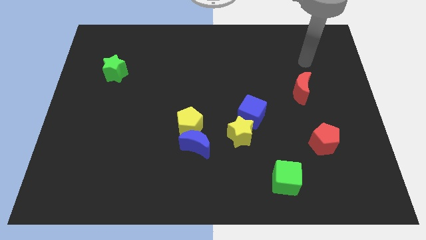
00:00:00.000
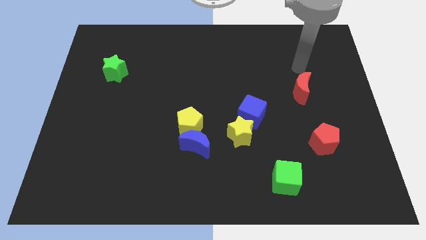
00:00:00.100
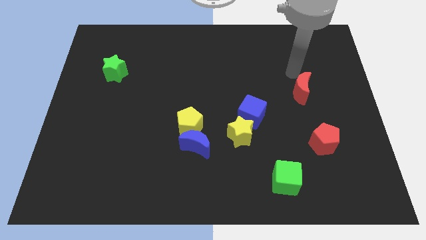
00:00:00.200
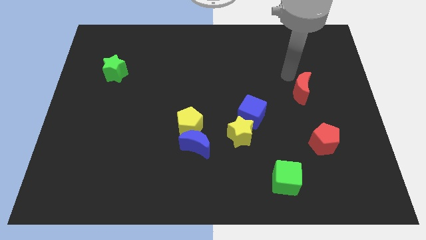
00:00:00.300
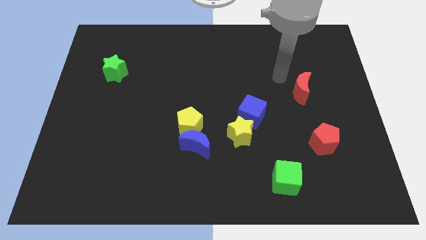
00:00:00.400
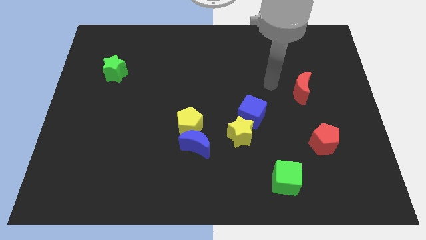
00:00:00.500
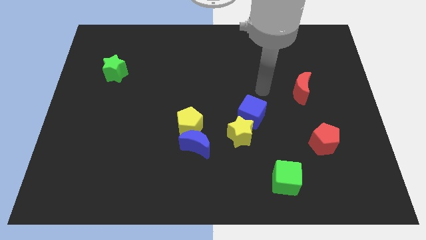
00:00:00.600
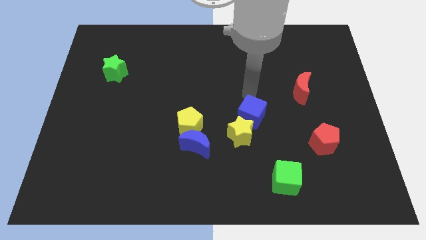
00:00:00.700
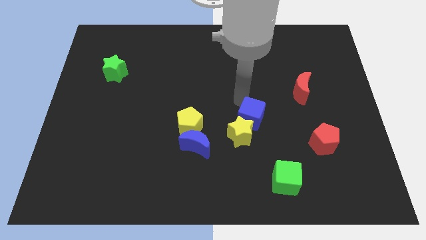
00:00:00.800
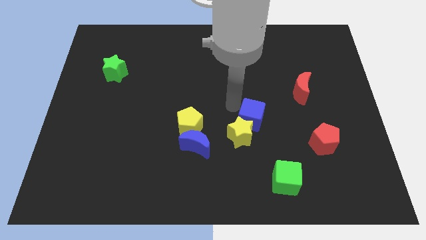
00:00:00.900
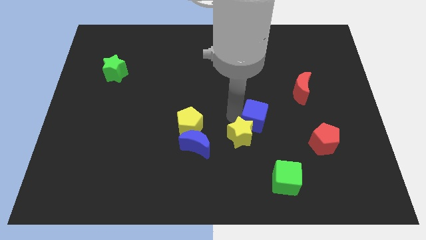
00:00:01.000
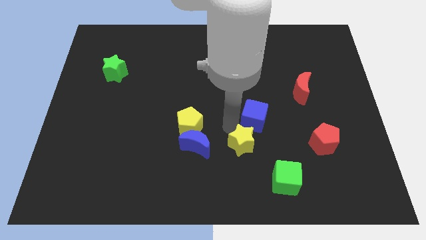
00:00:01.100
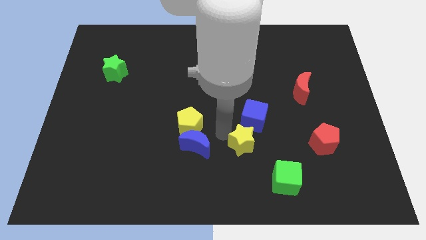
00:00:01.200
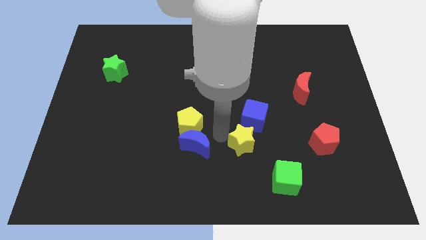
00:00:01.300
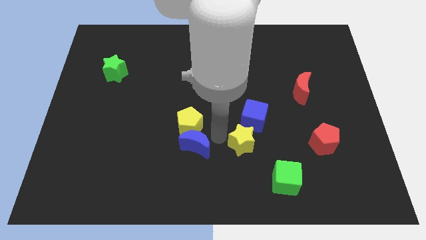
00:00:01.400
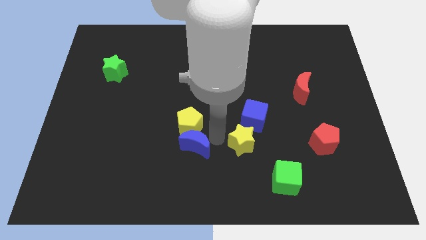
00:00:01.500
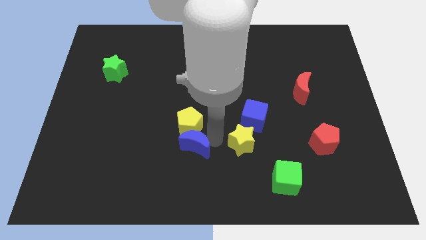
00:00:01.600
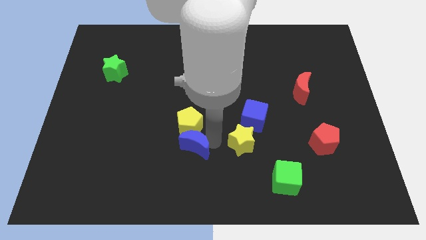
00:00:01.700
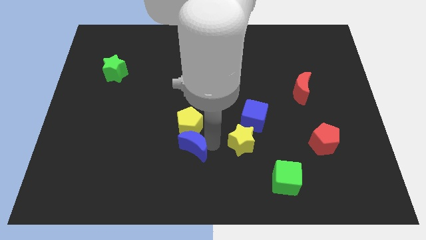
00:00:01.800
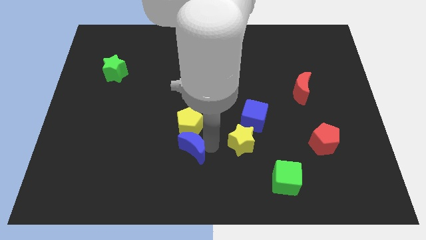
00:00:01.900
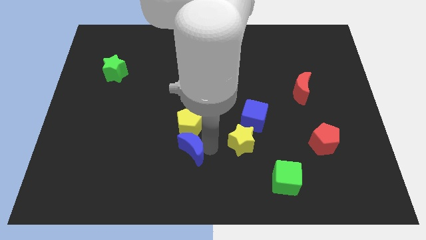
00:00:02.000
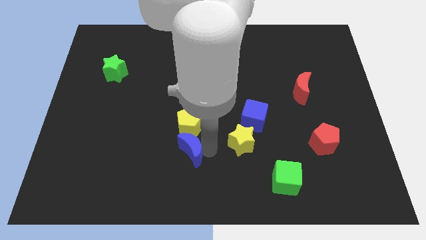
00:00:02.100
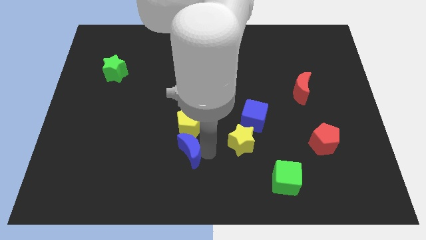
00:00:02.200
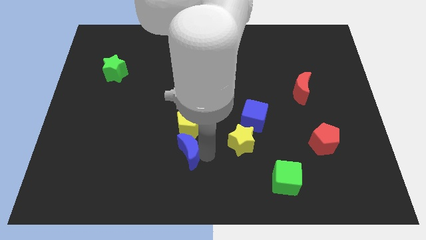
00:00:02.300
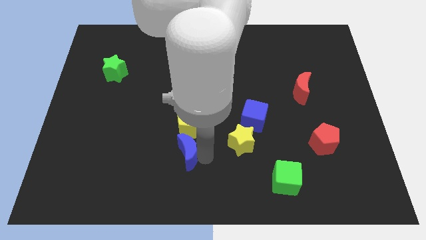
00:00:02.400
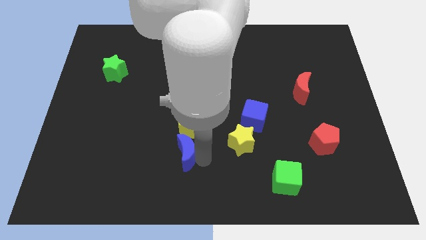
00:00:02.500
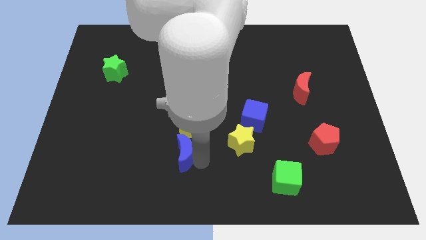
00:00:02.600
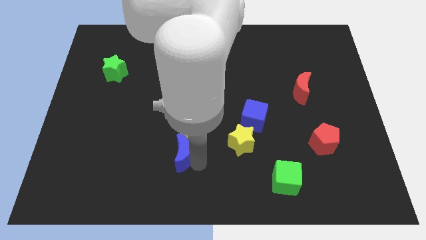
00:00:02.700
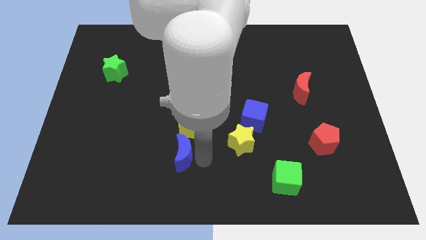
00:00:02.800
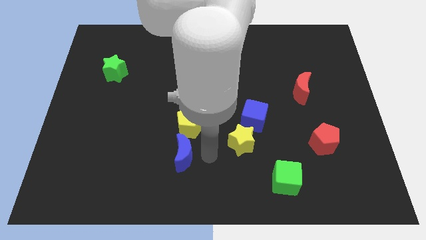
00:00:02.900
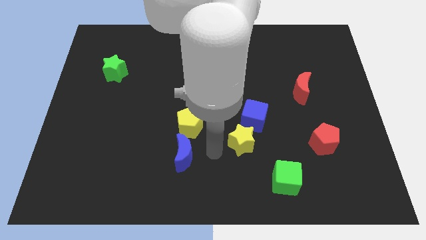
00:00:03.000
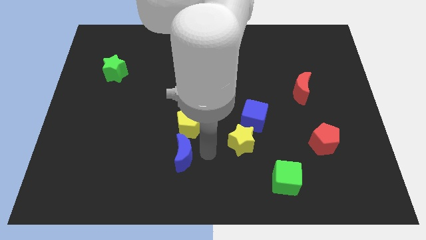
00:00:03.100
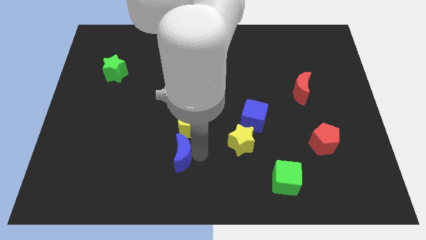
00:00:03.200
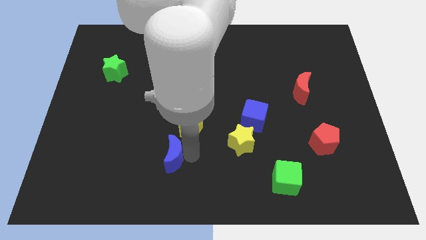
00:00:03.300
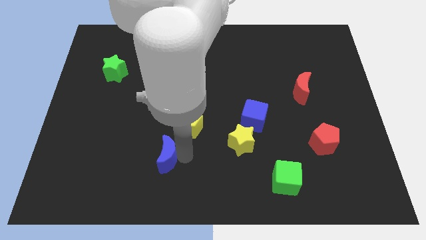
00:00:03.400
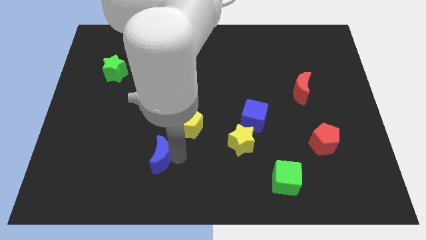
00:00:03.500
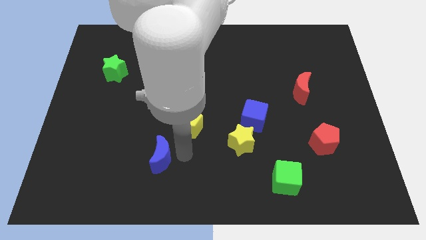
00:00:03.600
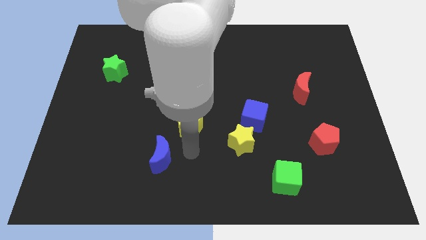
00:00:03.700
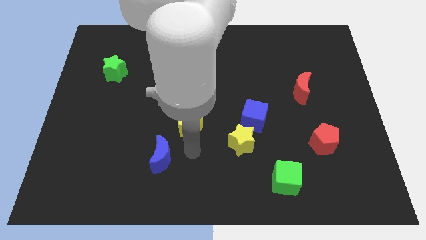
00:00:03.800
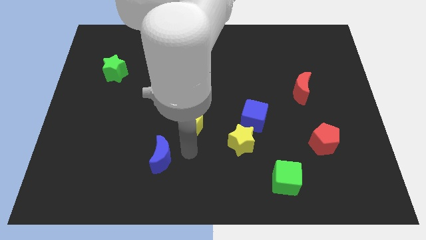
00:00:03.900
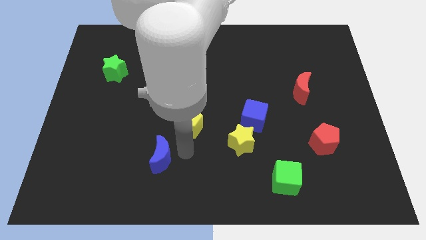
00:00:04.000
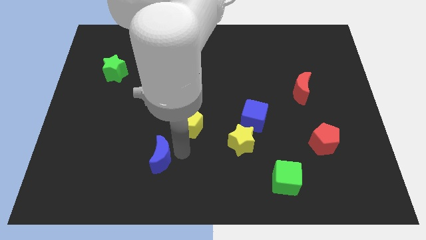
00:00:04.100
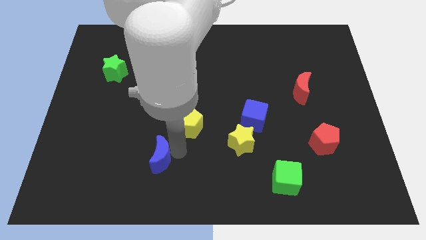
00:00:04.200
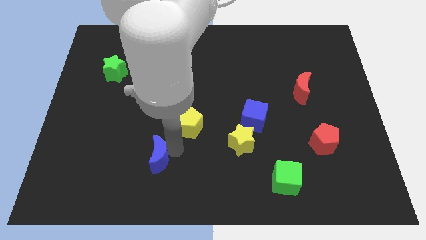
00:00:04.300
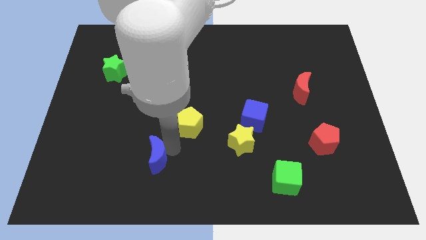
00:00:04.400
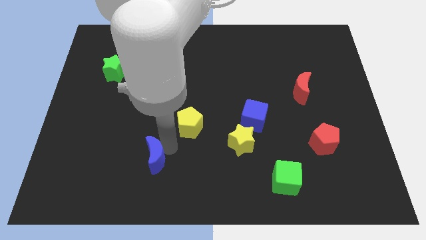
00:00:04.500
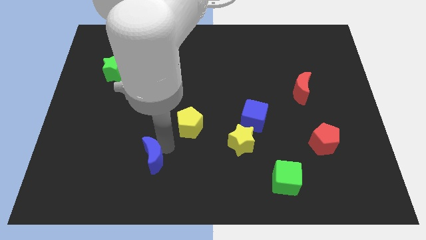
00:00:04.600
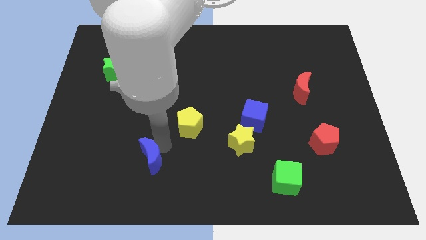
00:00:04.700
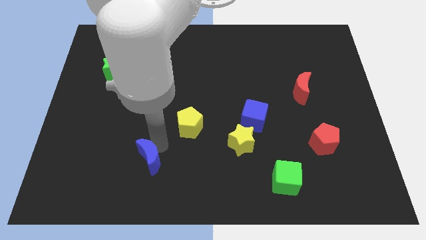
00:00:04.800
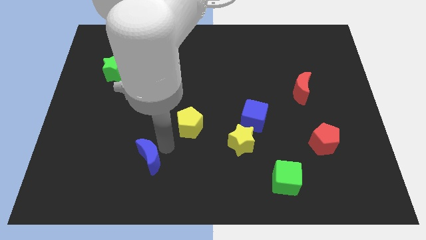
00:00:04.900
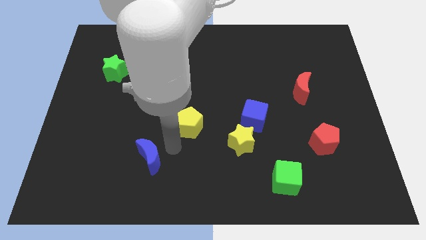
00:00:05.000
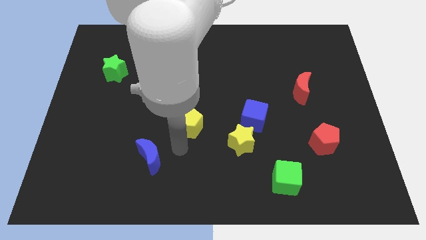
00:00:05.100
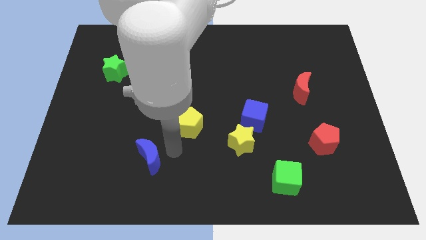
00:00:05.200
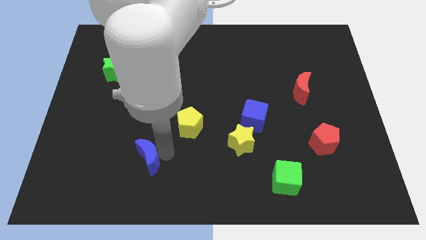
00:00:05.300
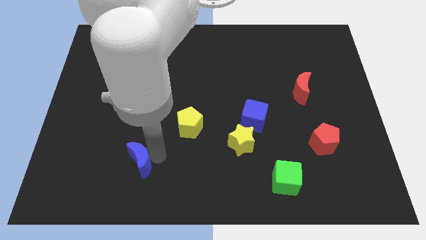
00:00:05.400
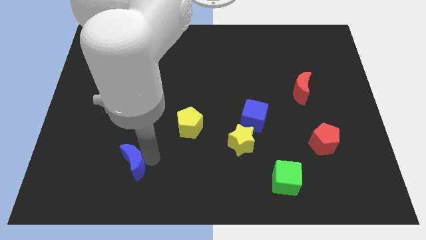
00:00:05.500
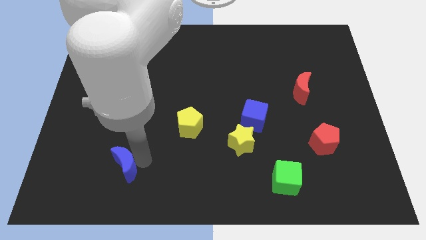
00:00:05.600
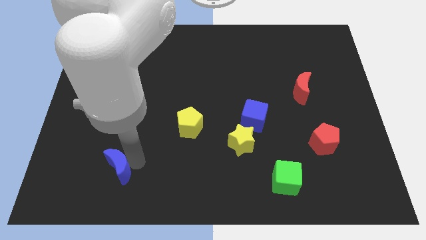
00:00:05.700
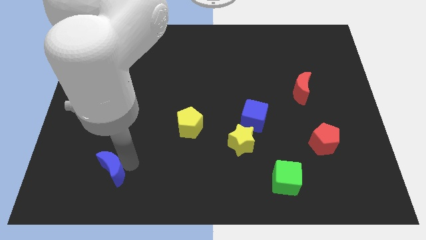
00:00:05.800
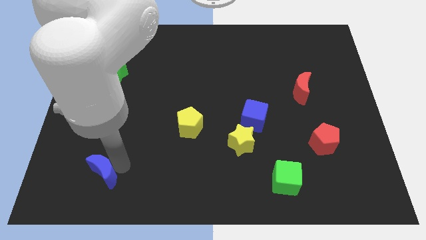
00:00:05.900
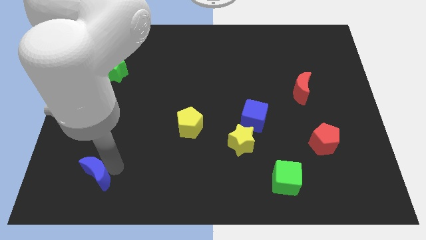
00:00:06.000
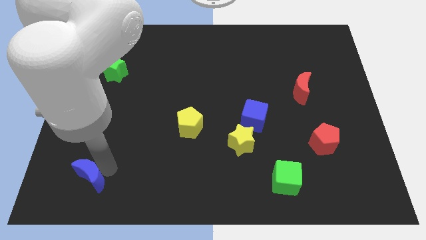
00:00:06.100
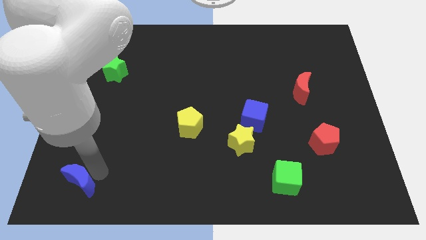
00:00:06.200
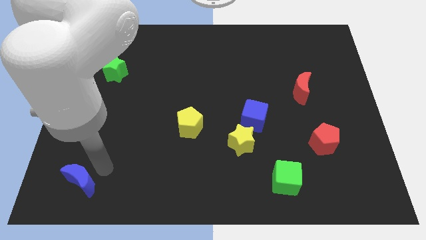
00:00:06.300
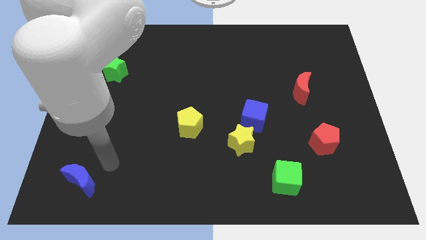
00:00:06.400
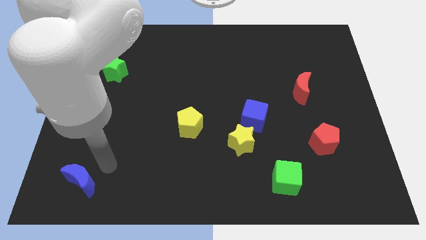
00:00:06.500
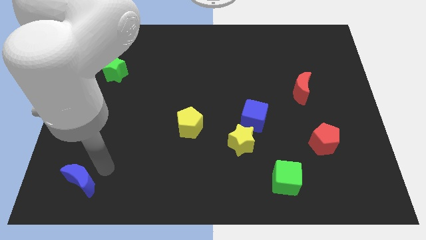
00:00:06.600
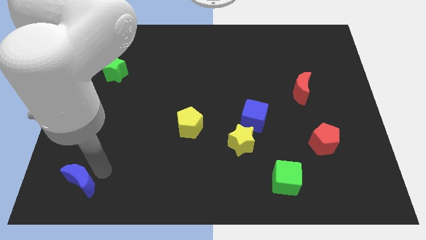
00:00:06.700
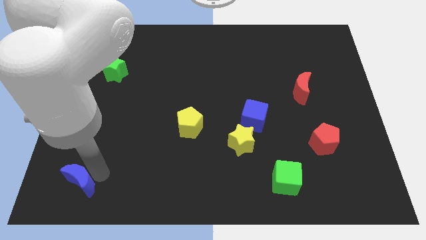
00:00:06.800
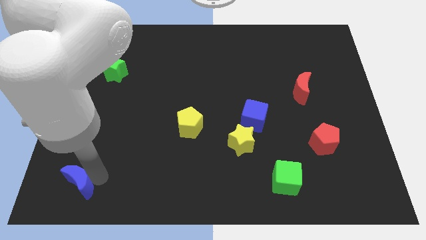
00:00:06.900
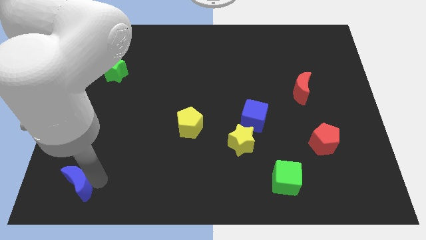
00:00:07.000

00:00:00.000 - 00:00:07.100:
slide the blue moon to the bottom left corner
